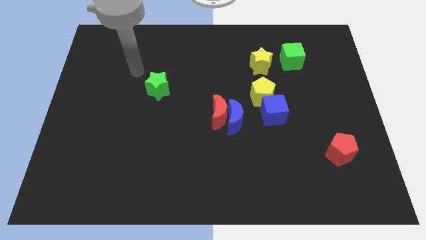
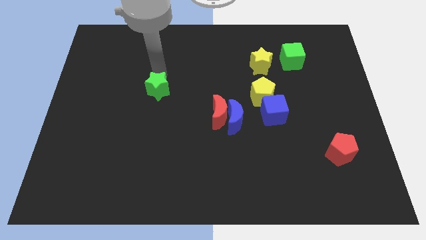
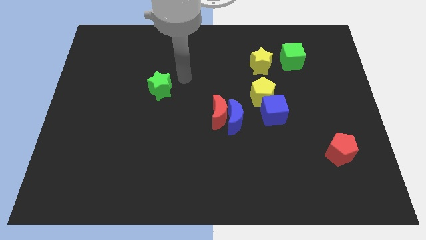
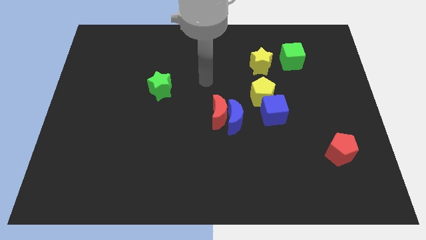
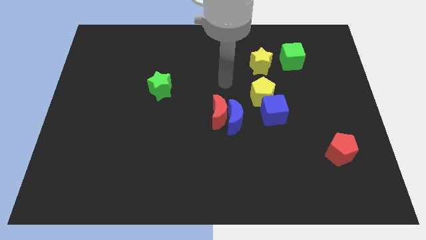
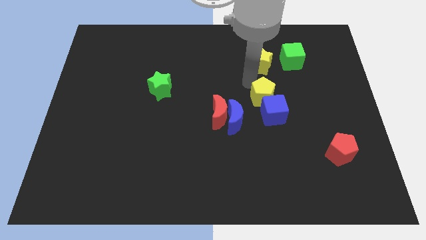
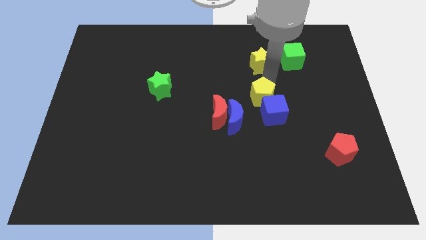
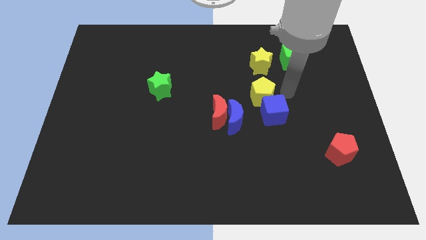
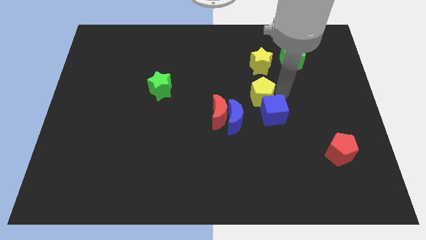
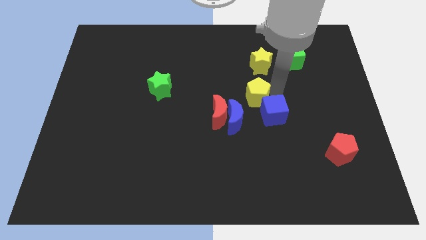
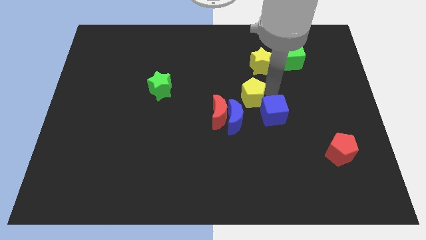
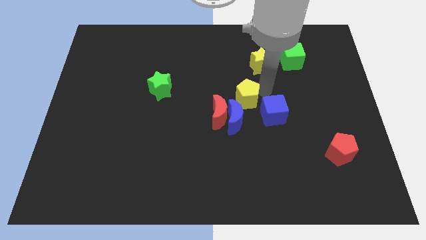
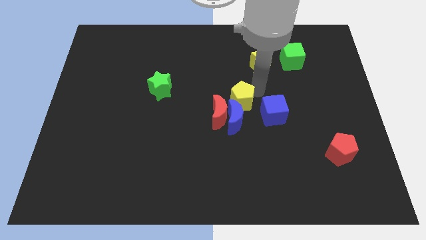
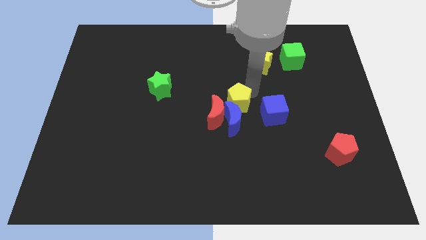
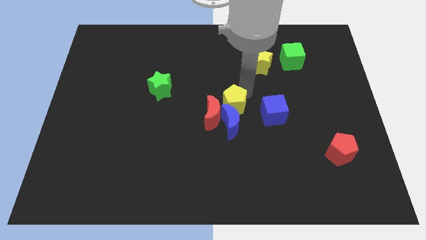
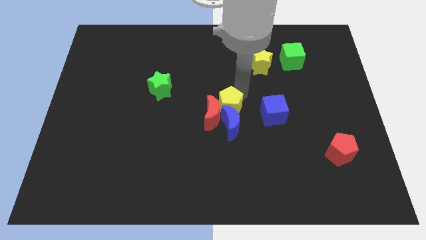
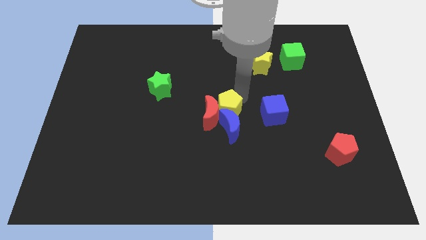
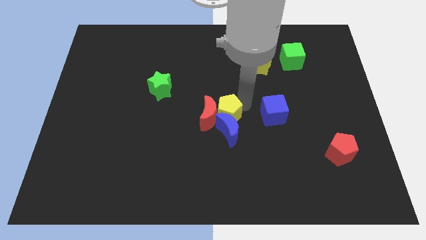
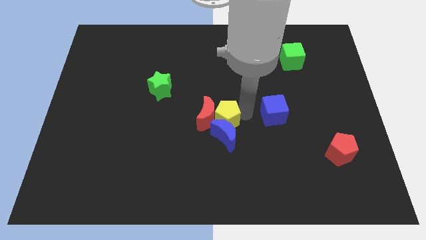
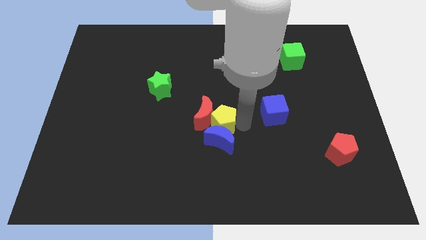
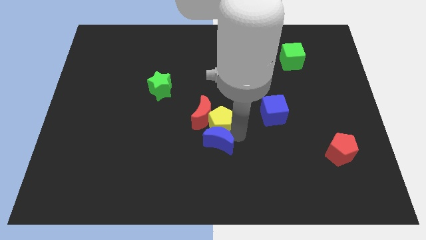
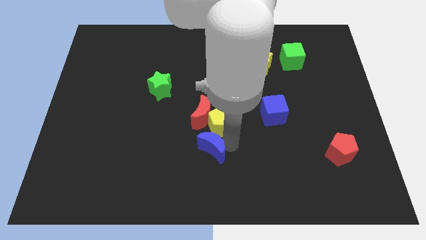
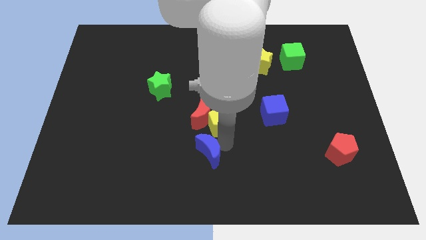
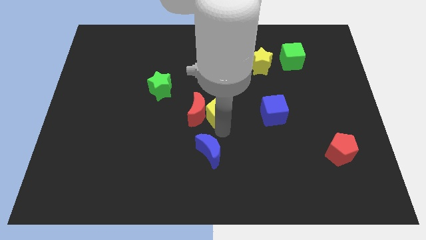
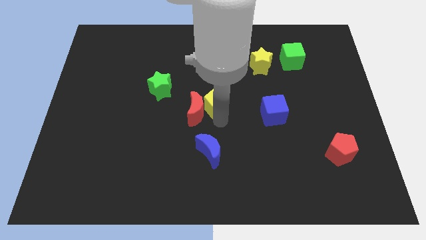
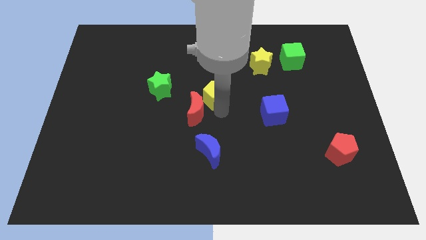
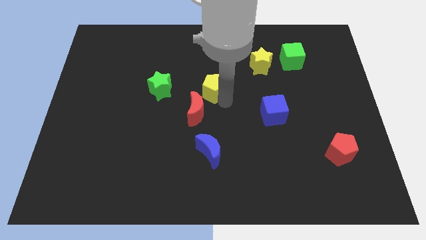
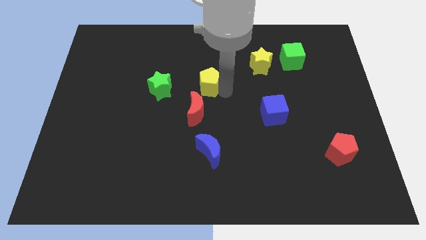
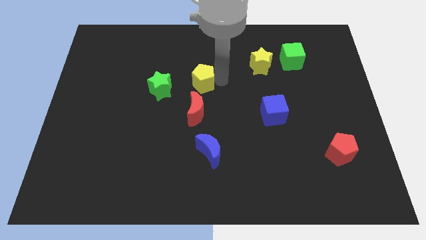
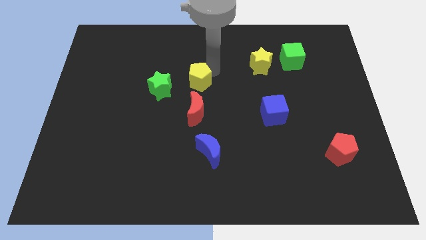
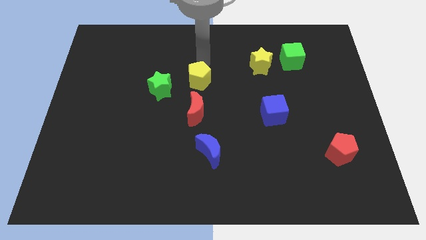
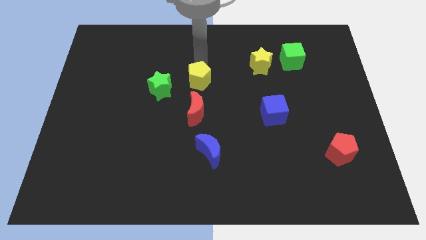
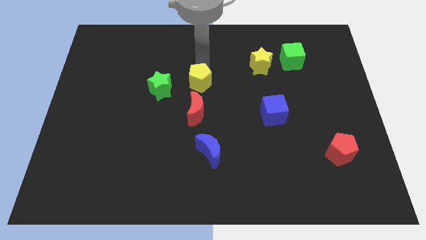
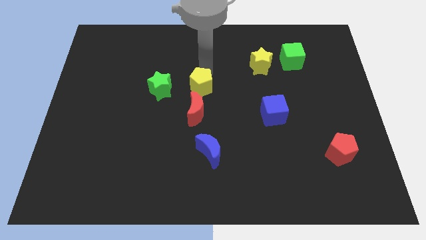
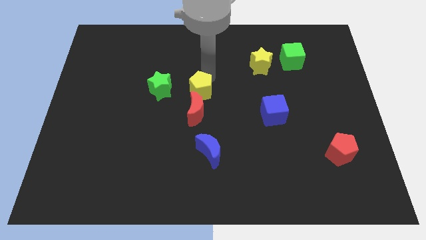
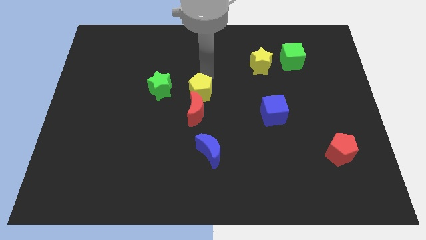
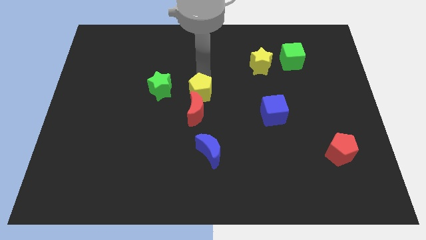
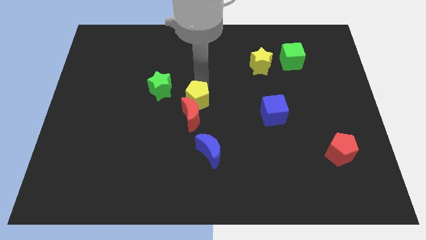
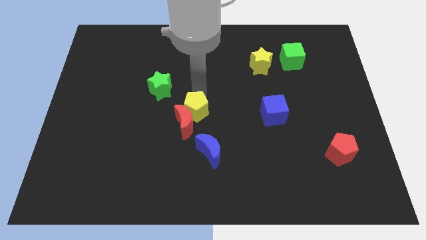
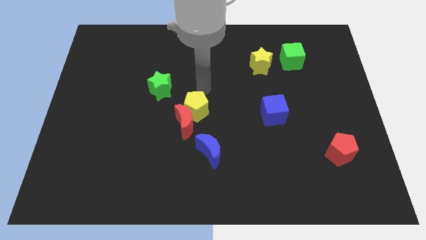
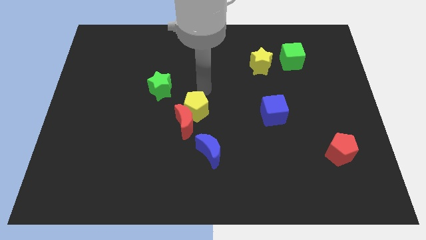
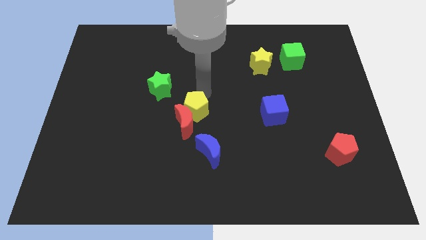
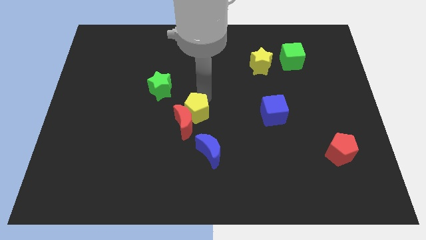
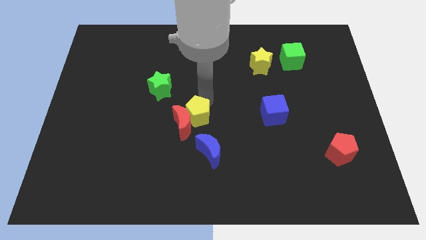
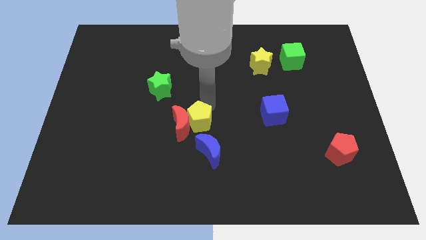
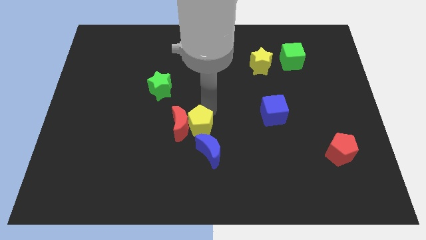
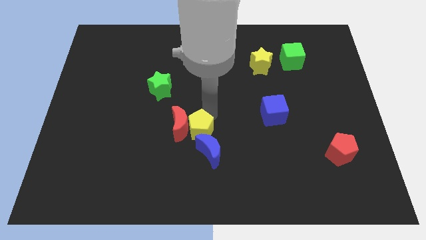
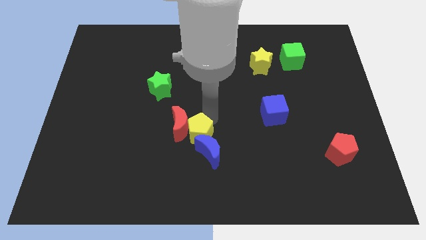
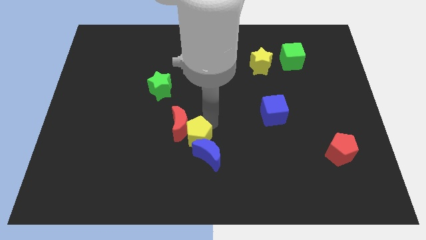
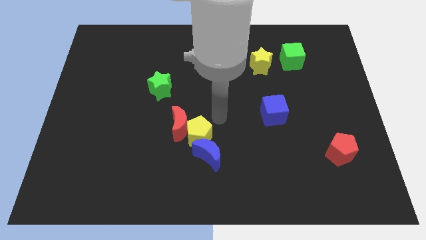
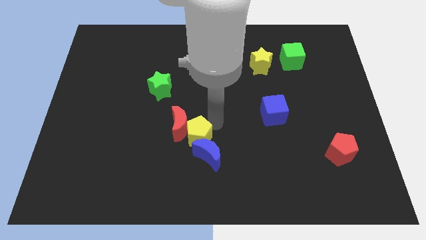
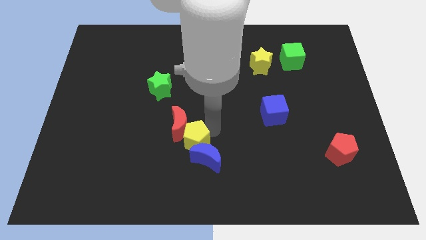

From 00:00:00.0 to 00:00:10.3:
push the yellow pentagon diagonally downwards and left

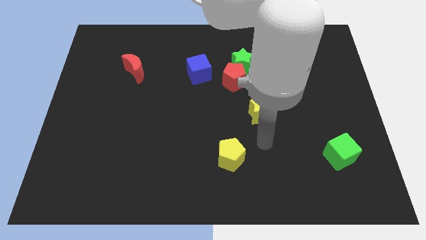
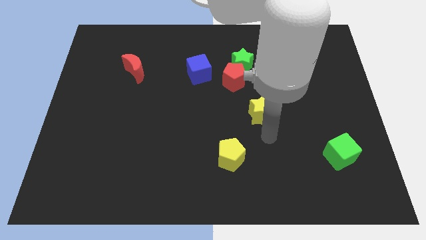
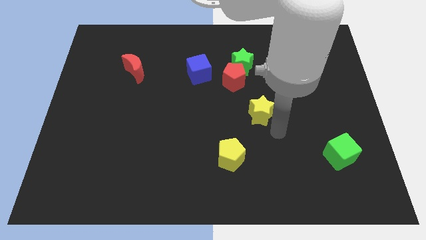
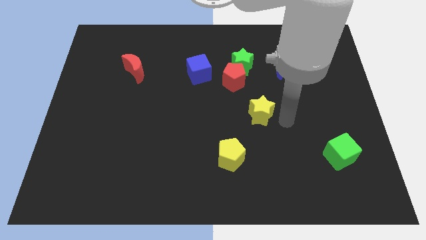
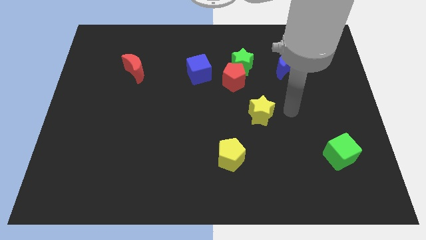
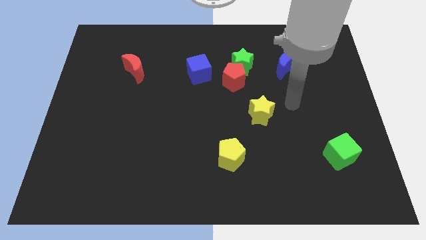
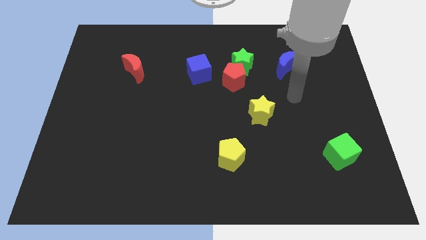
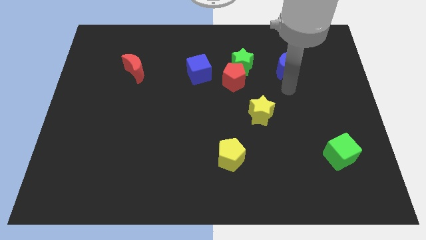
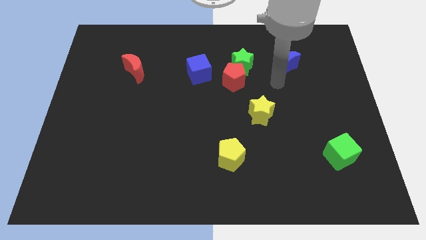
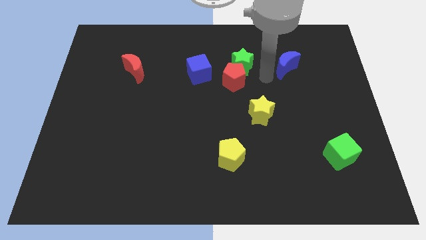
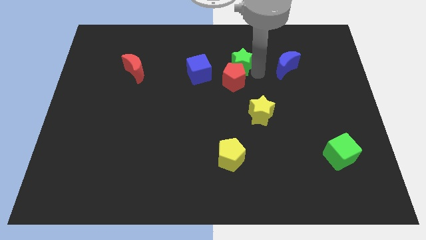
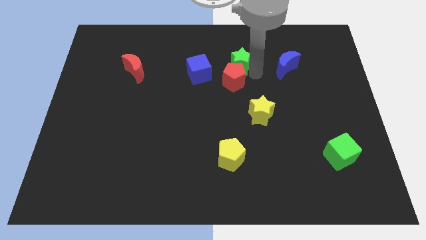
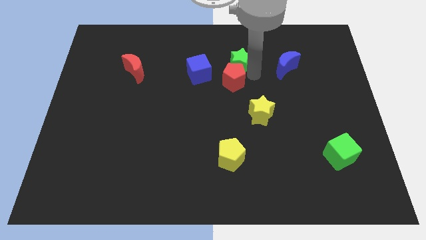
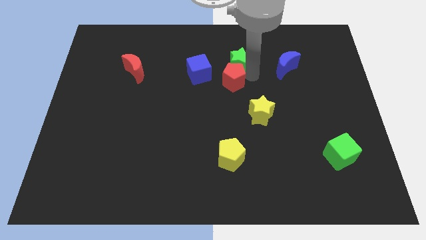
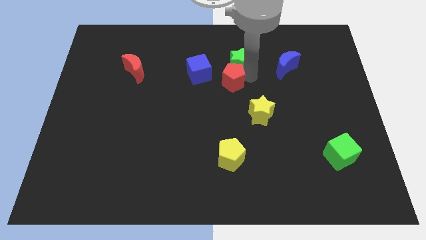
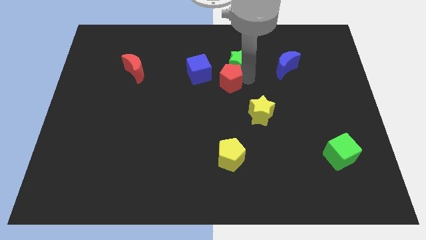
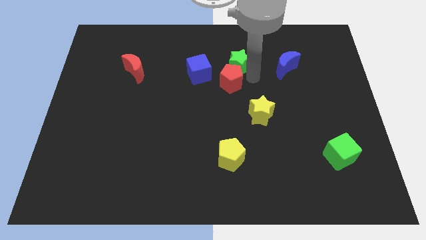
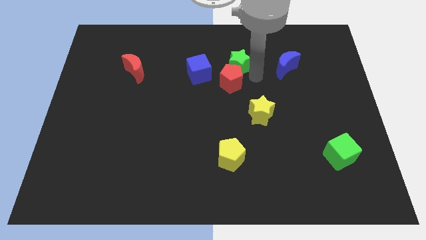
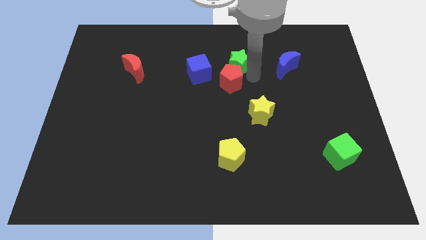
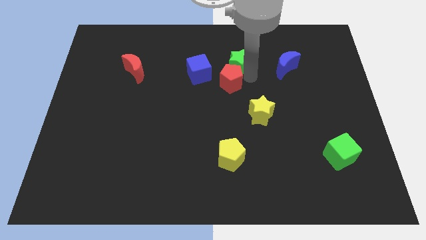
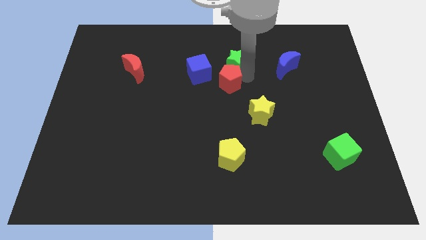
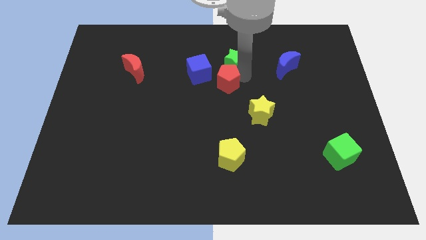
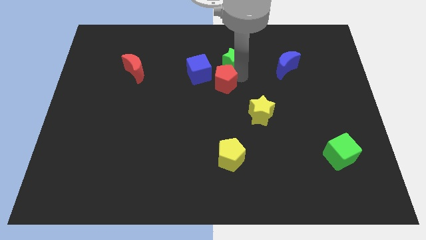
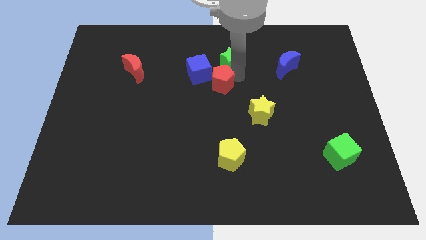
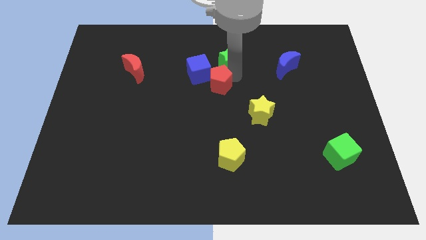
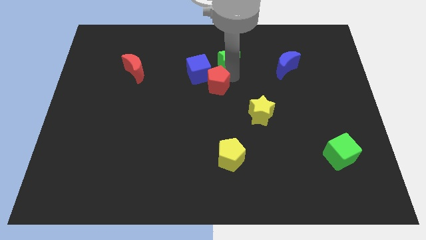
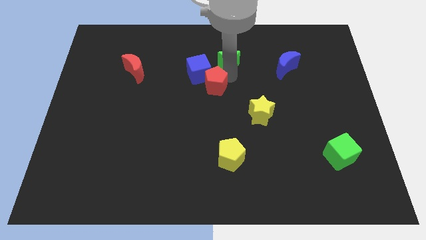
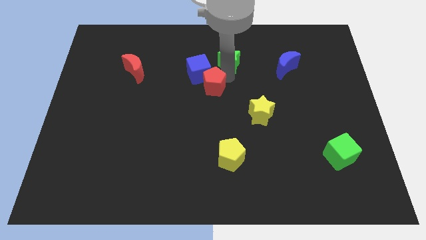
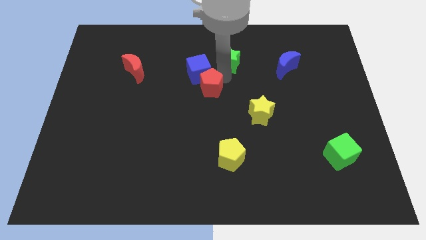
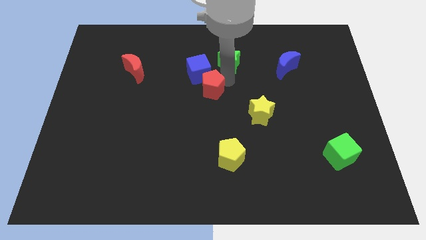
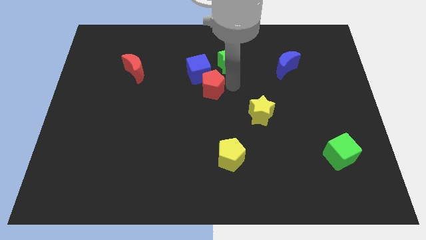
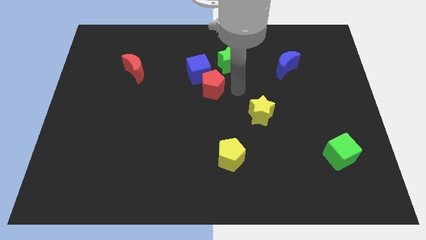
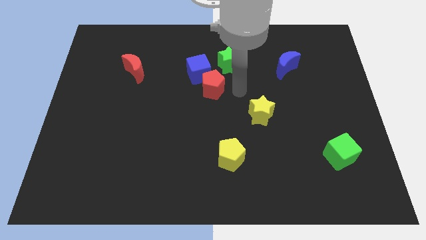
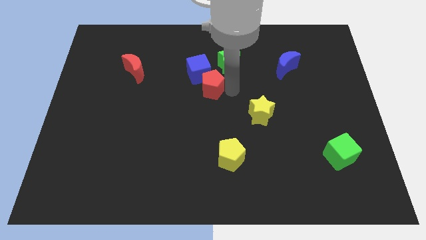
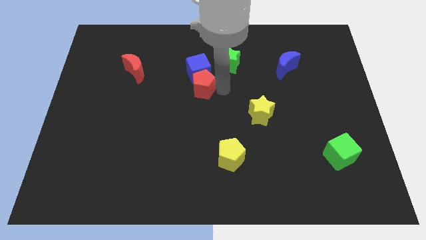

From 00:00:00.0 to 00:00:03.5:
move the red pentagon a little bit left
